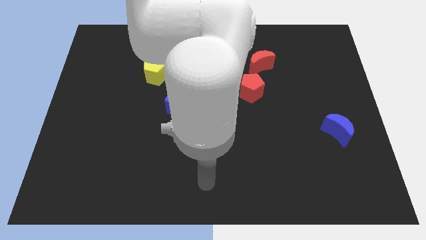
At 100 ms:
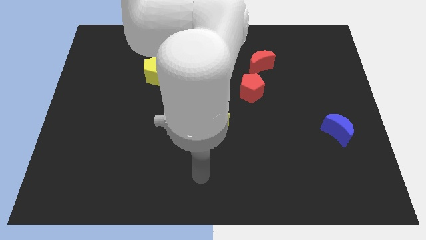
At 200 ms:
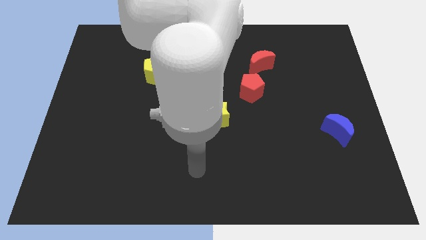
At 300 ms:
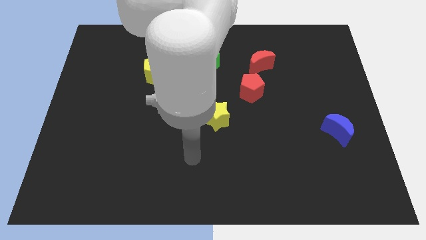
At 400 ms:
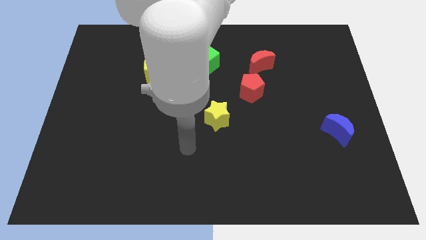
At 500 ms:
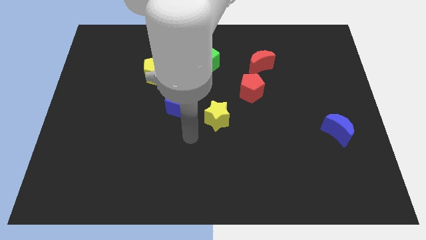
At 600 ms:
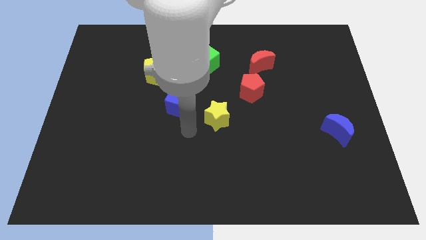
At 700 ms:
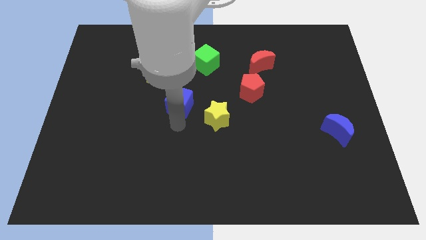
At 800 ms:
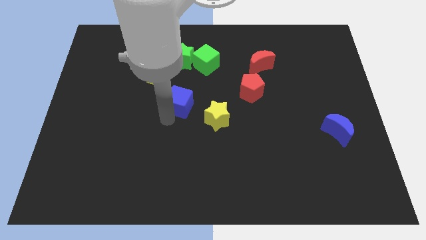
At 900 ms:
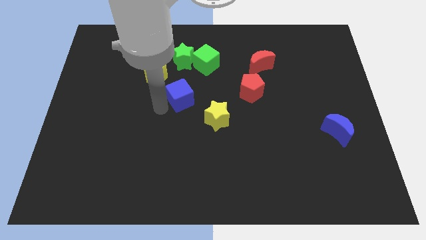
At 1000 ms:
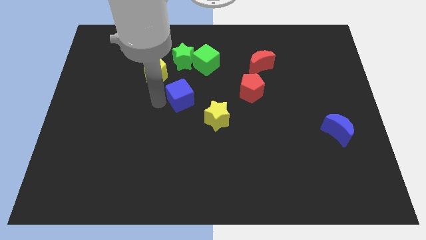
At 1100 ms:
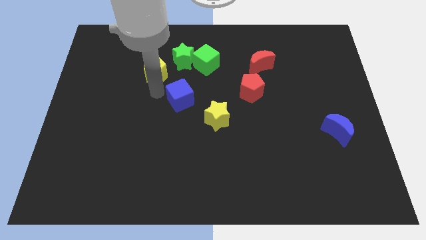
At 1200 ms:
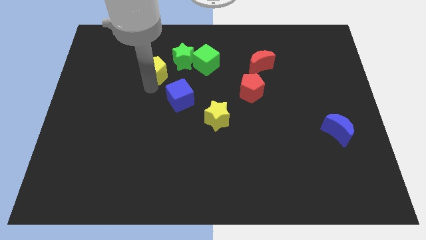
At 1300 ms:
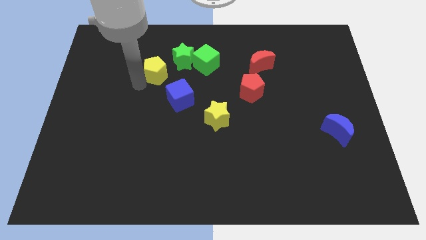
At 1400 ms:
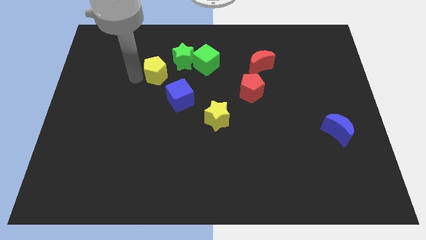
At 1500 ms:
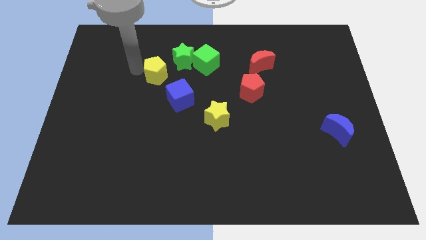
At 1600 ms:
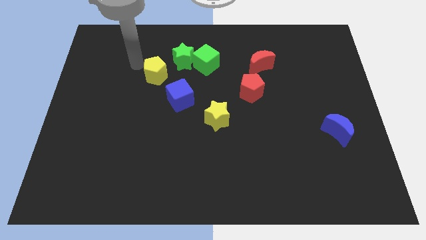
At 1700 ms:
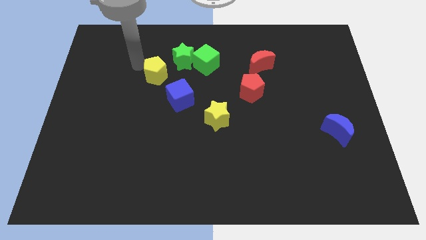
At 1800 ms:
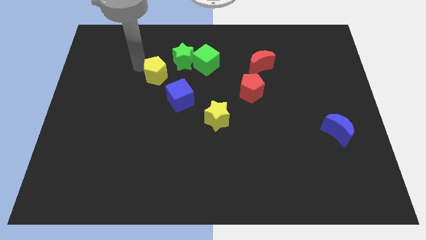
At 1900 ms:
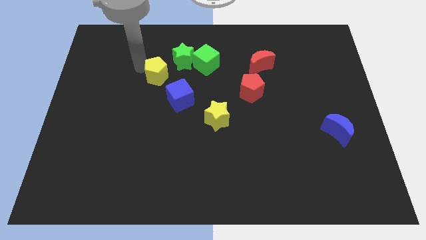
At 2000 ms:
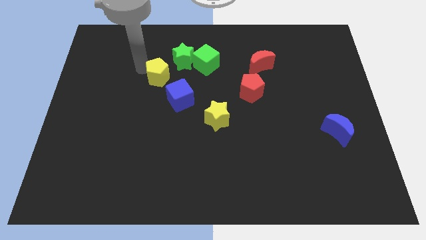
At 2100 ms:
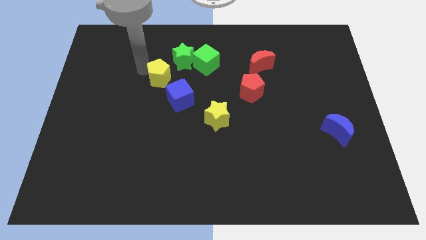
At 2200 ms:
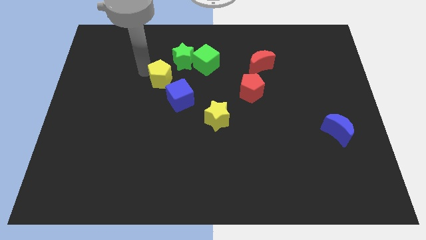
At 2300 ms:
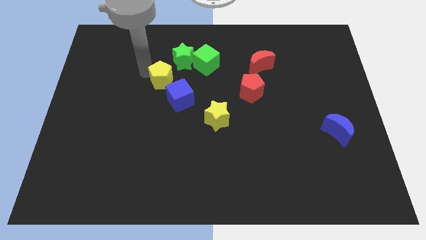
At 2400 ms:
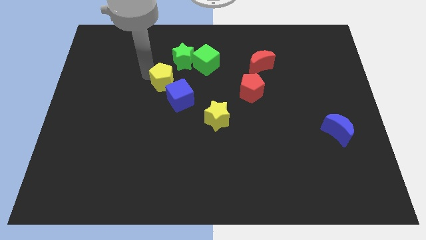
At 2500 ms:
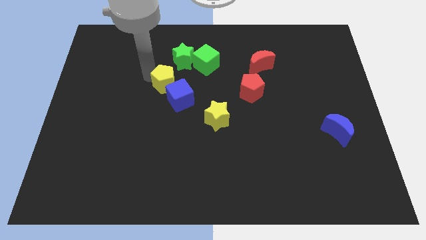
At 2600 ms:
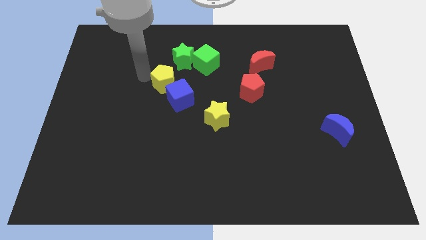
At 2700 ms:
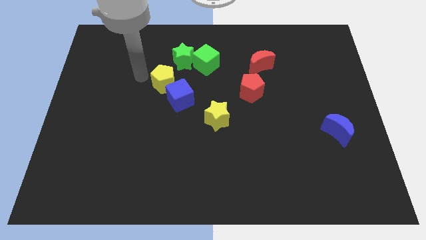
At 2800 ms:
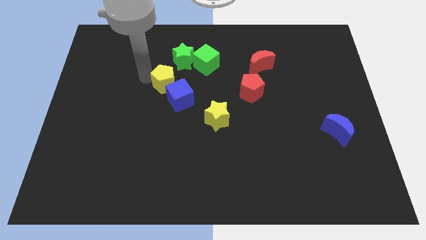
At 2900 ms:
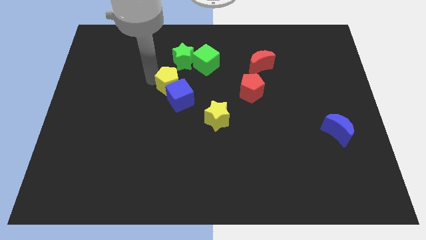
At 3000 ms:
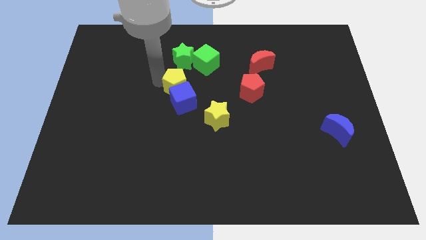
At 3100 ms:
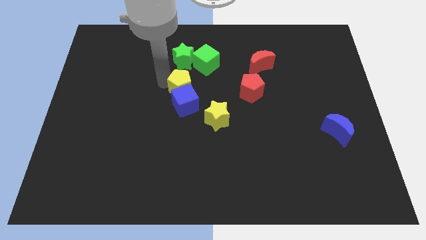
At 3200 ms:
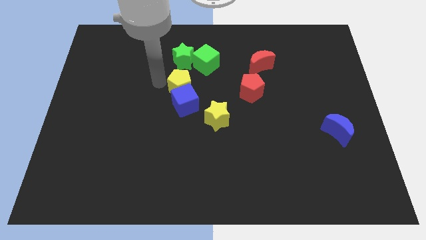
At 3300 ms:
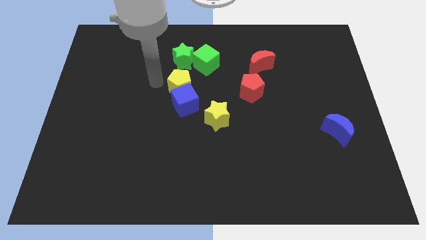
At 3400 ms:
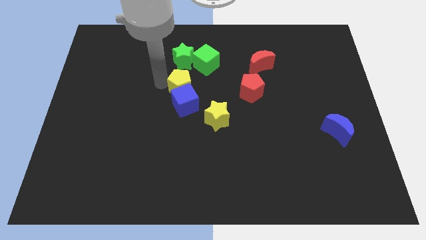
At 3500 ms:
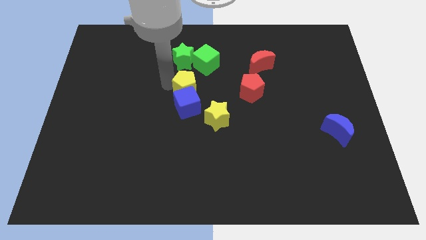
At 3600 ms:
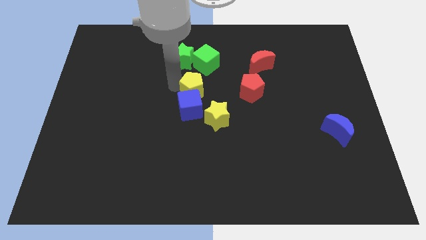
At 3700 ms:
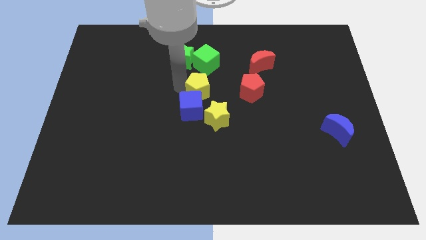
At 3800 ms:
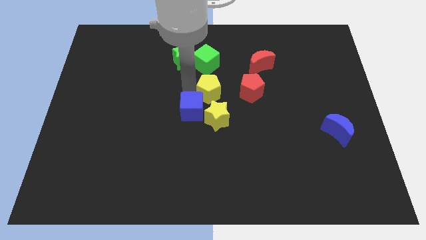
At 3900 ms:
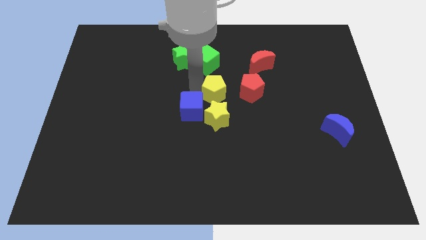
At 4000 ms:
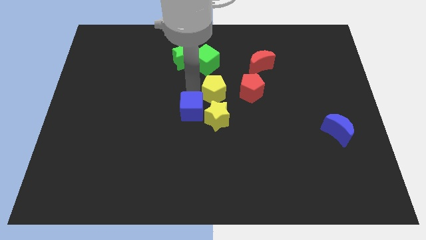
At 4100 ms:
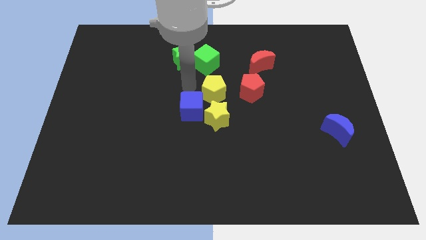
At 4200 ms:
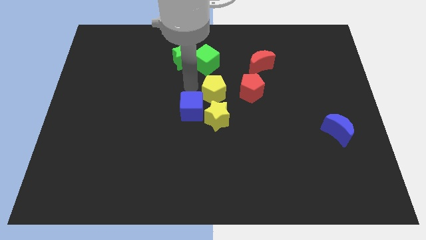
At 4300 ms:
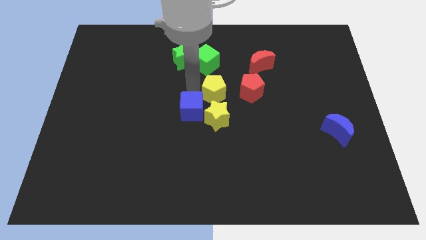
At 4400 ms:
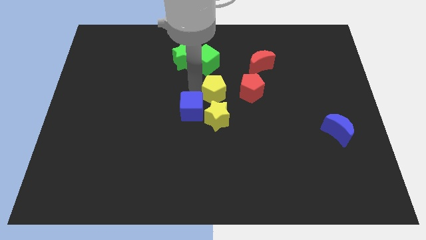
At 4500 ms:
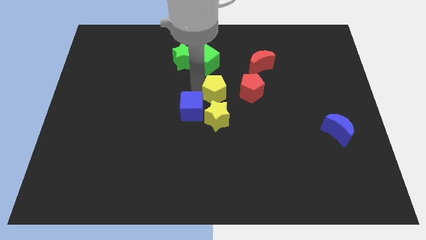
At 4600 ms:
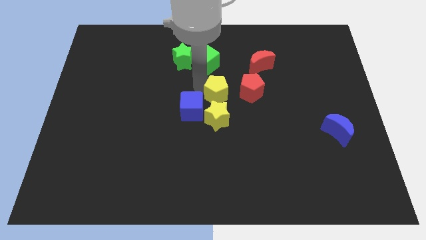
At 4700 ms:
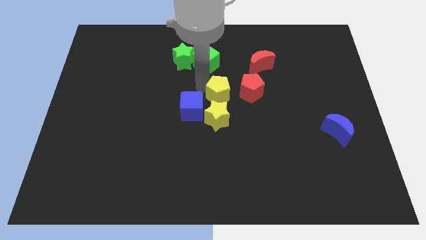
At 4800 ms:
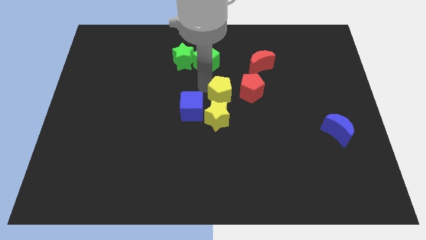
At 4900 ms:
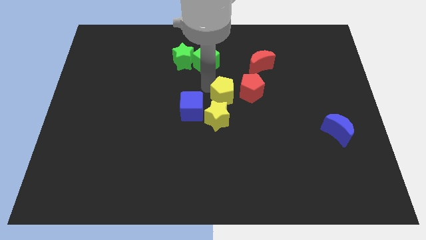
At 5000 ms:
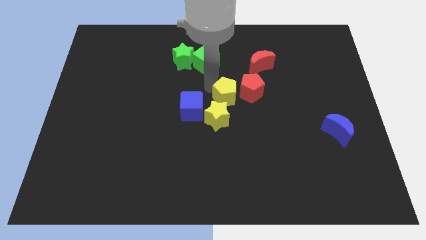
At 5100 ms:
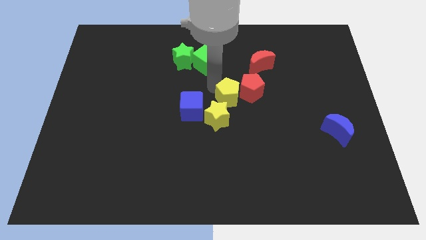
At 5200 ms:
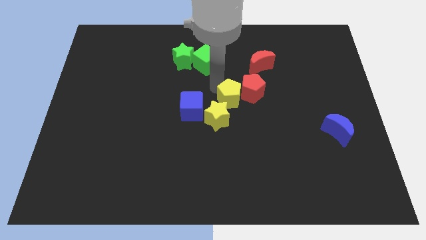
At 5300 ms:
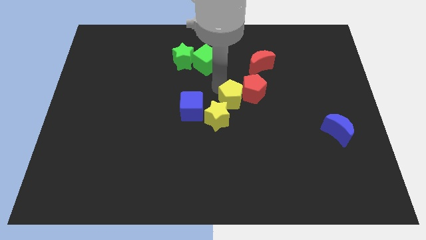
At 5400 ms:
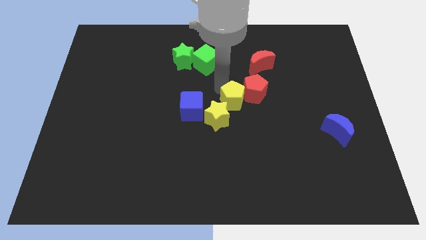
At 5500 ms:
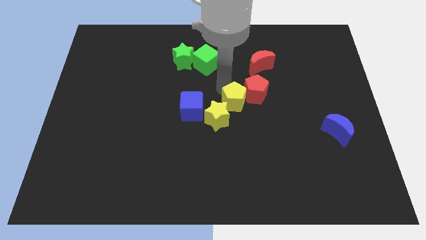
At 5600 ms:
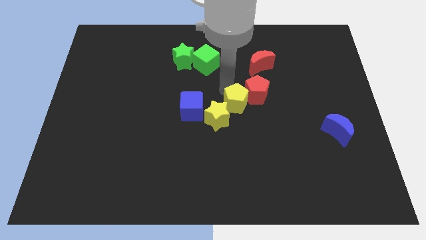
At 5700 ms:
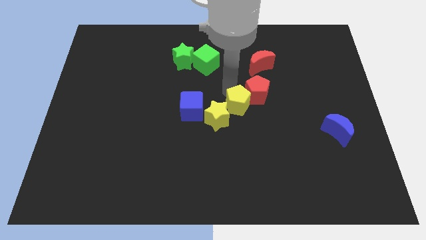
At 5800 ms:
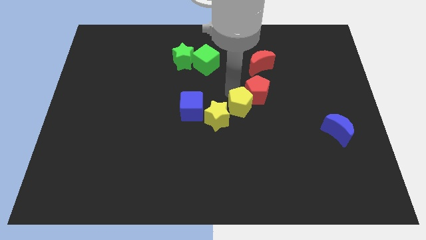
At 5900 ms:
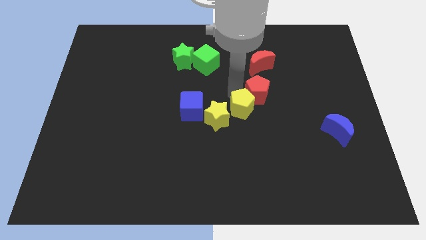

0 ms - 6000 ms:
slide the yellow pentagon down and then to the right

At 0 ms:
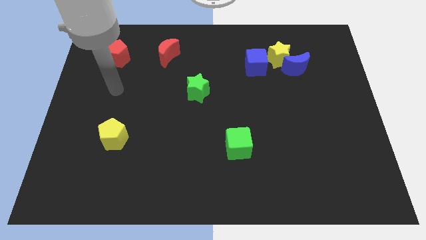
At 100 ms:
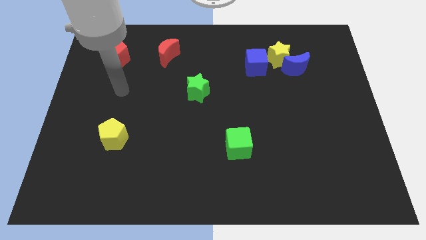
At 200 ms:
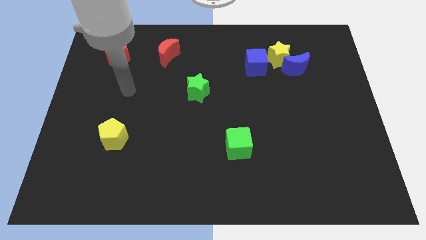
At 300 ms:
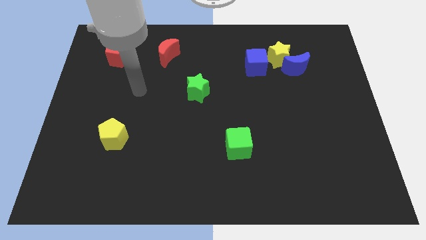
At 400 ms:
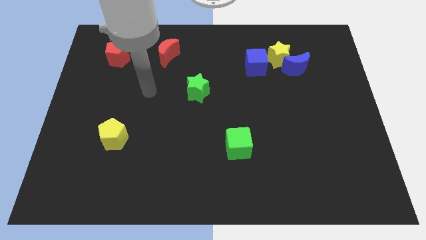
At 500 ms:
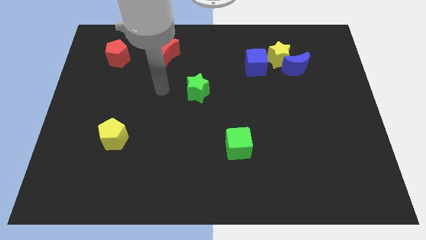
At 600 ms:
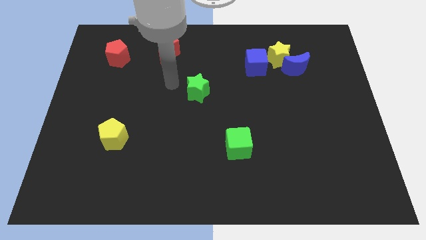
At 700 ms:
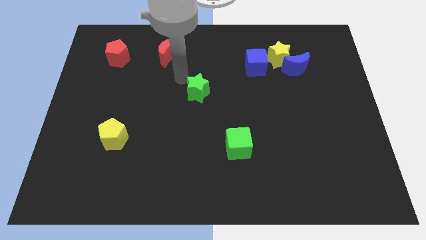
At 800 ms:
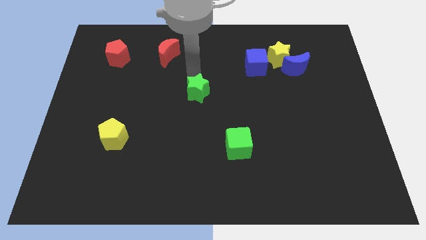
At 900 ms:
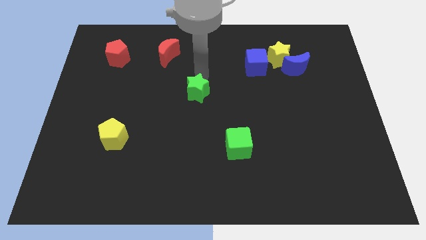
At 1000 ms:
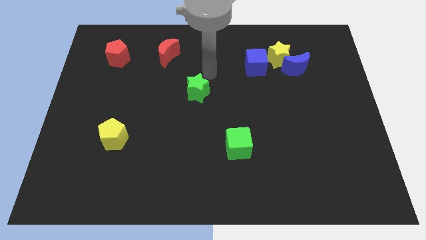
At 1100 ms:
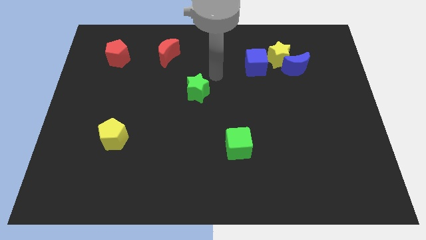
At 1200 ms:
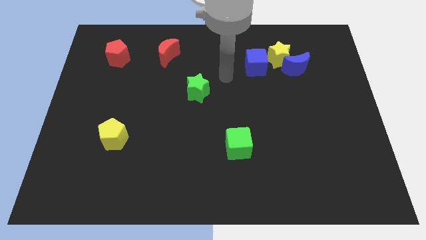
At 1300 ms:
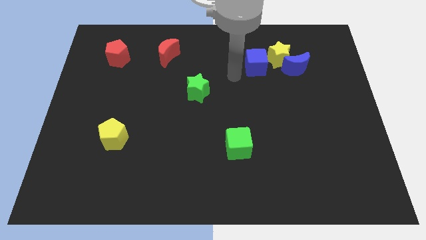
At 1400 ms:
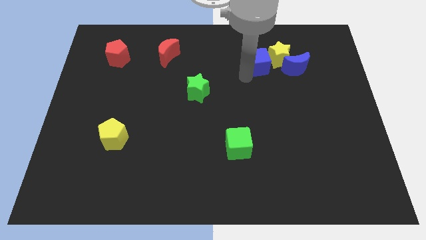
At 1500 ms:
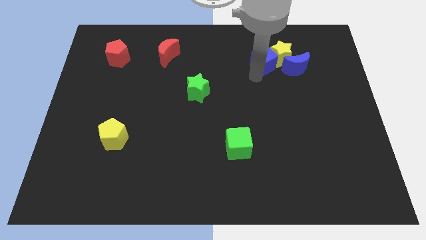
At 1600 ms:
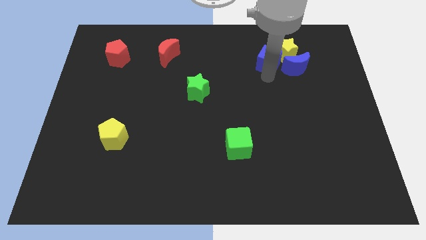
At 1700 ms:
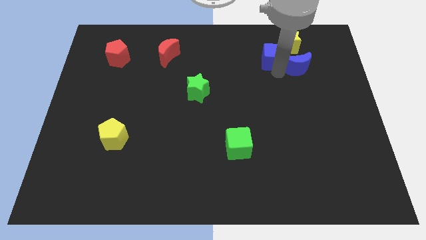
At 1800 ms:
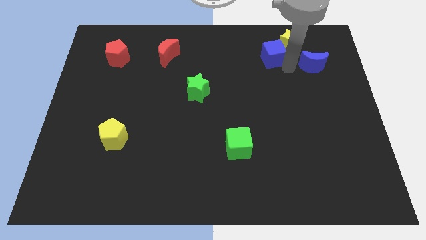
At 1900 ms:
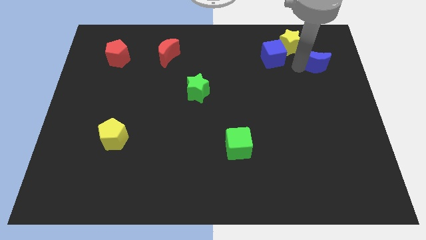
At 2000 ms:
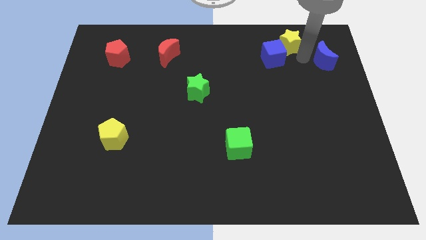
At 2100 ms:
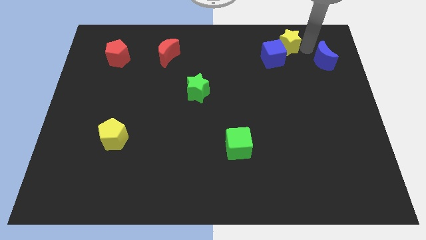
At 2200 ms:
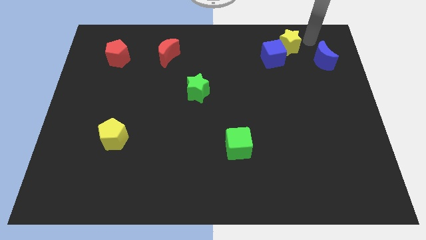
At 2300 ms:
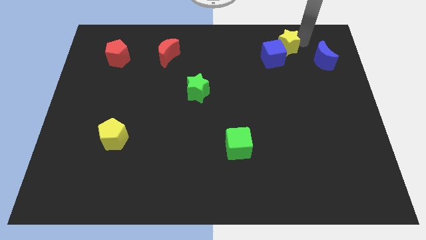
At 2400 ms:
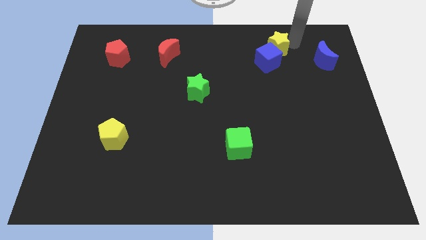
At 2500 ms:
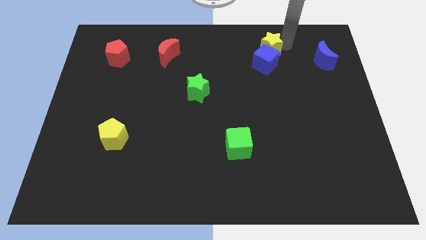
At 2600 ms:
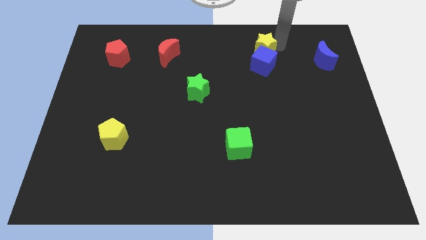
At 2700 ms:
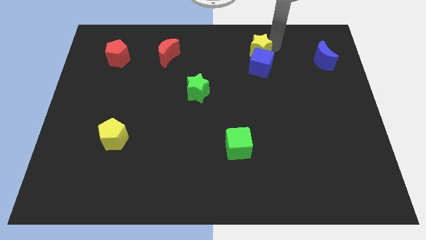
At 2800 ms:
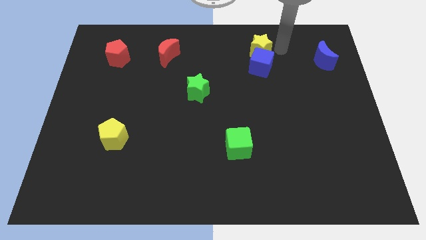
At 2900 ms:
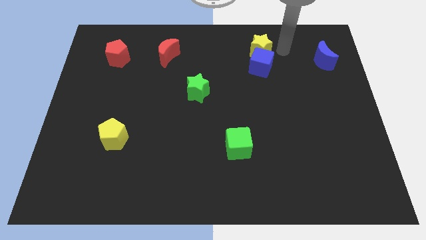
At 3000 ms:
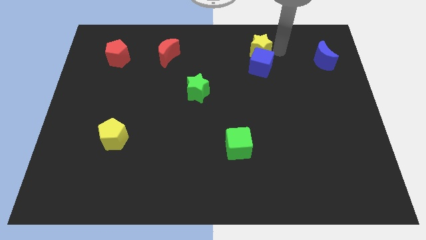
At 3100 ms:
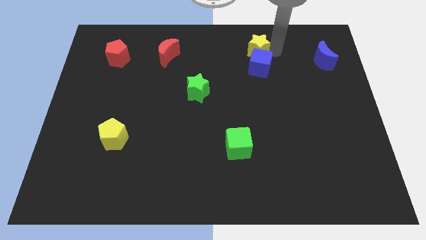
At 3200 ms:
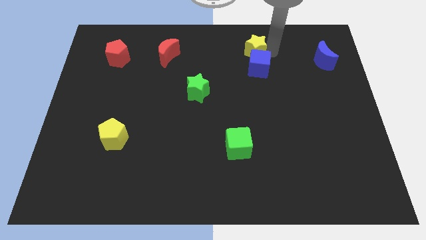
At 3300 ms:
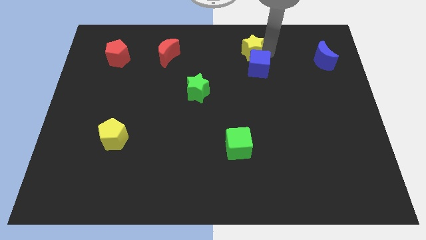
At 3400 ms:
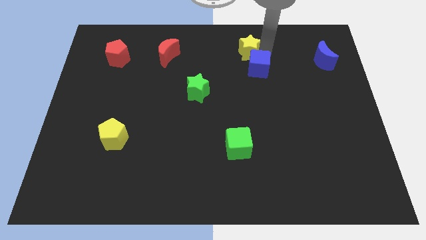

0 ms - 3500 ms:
move the yellow star to the left slightly
